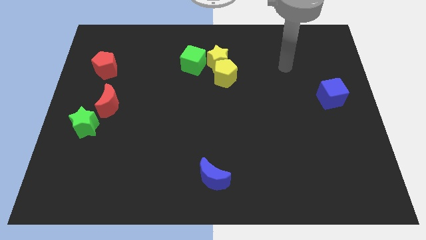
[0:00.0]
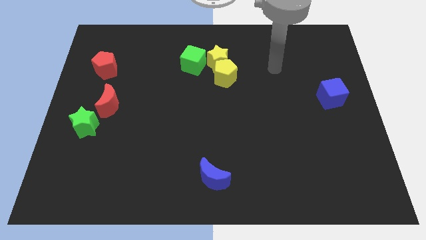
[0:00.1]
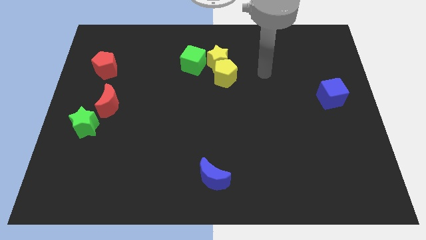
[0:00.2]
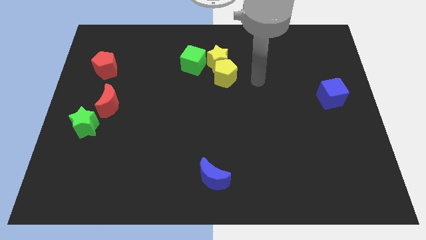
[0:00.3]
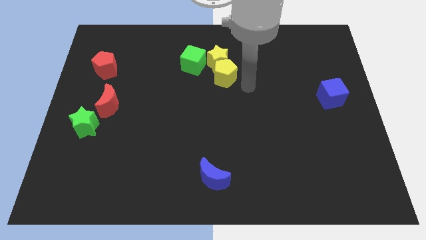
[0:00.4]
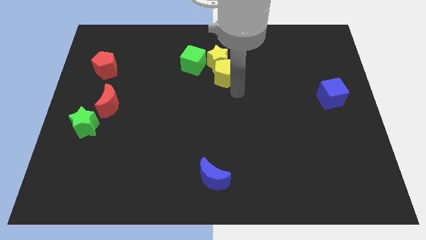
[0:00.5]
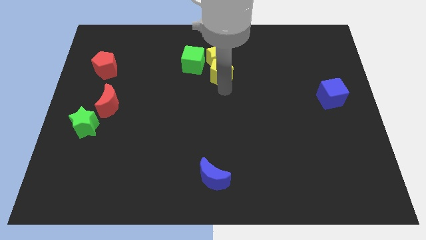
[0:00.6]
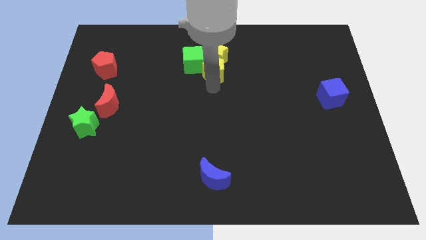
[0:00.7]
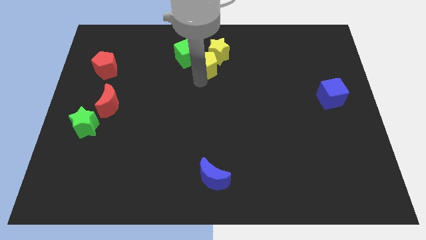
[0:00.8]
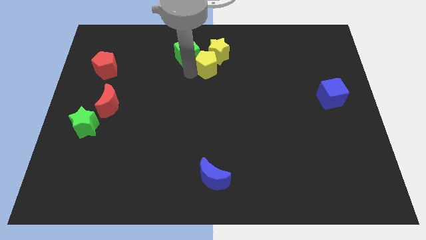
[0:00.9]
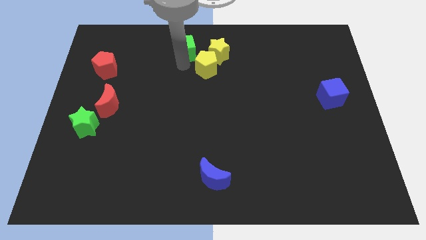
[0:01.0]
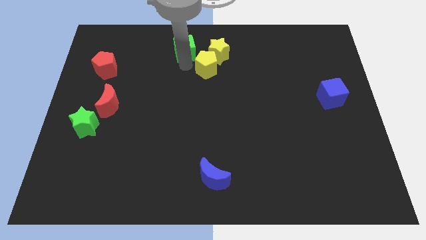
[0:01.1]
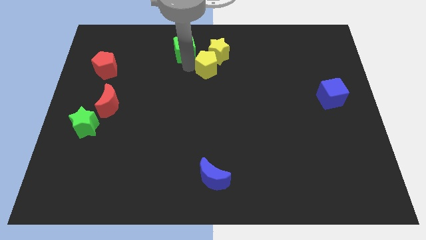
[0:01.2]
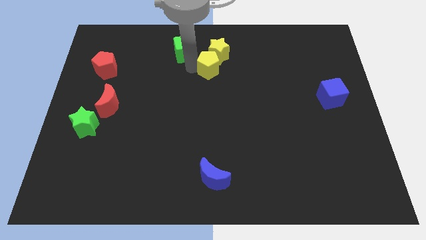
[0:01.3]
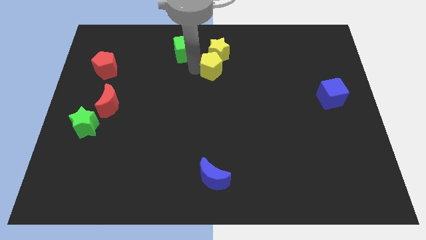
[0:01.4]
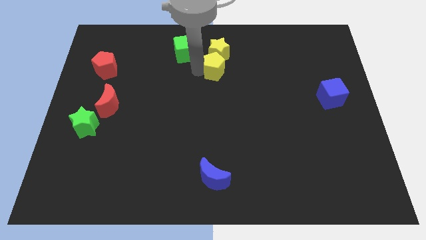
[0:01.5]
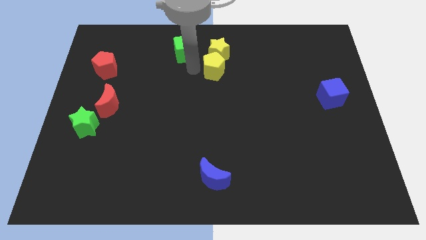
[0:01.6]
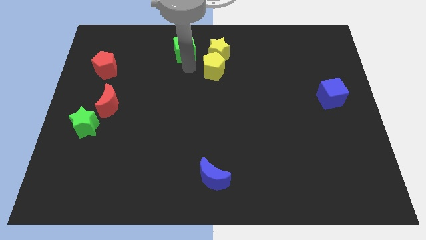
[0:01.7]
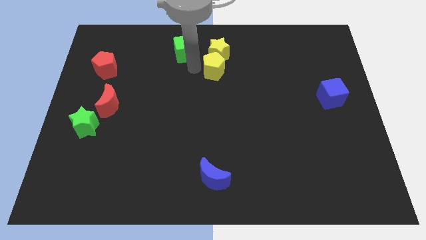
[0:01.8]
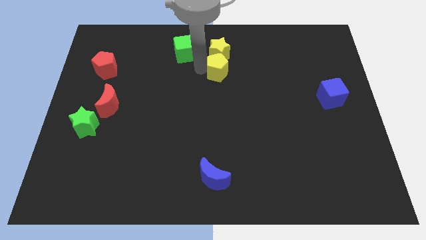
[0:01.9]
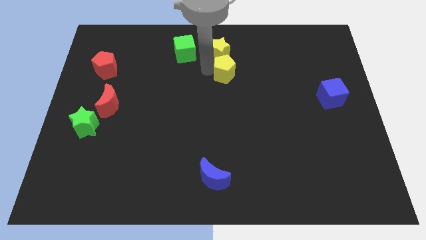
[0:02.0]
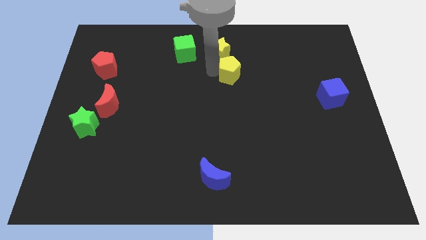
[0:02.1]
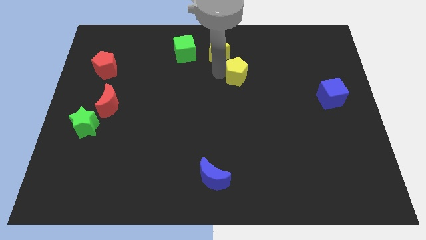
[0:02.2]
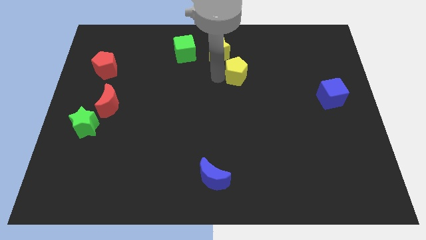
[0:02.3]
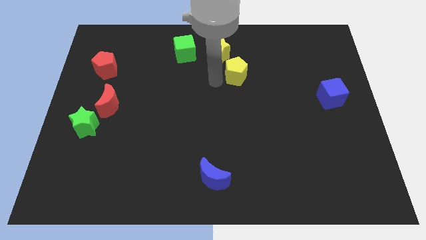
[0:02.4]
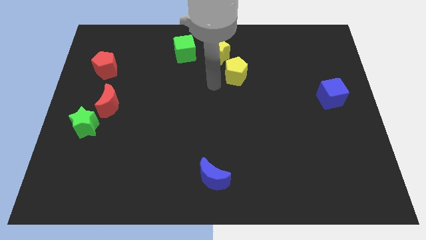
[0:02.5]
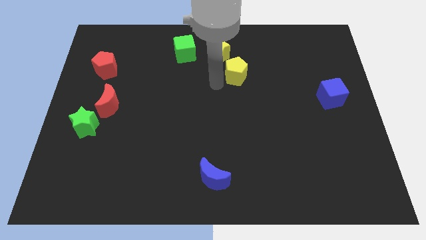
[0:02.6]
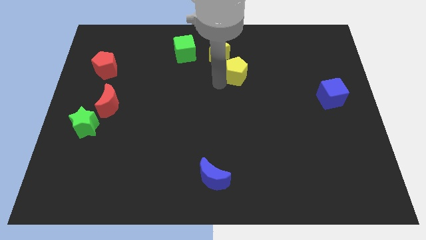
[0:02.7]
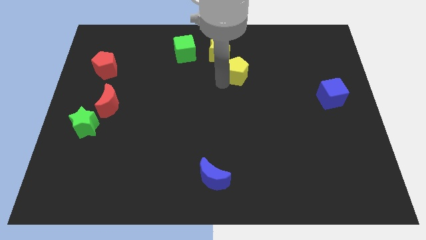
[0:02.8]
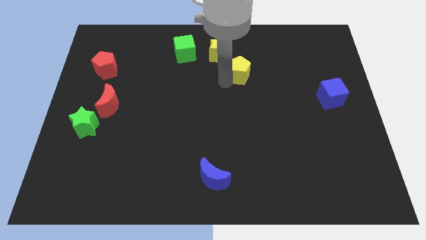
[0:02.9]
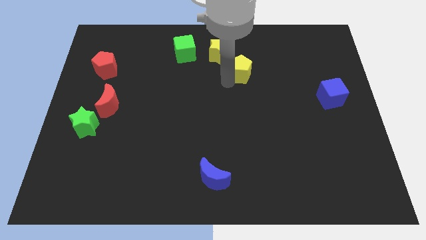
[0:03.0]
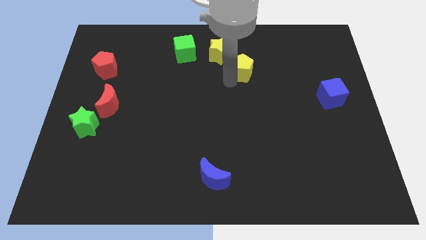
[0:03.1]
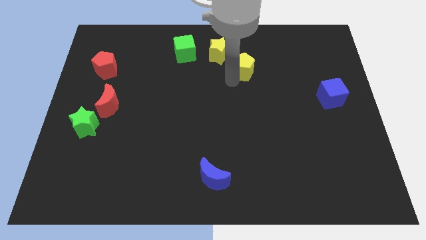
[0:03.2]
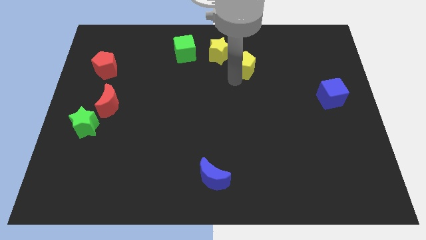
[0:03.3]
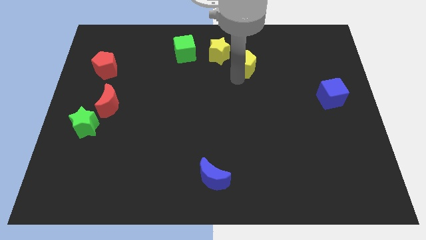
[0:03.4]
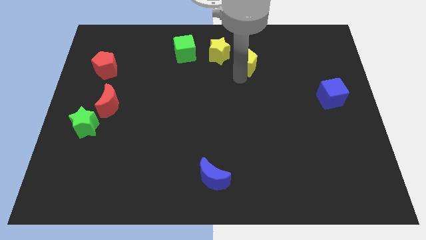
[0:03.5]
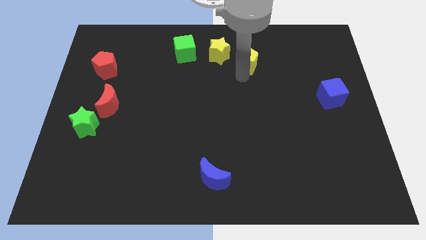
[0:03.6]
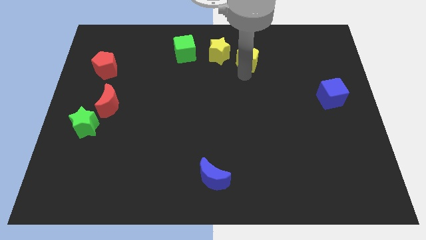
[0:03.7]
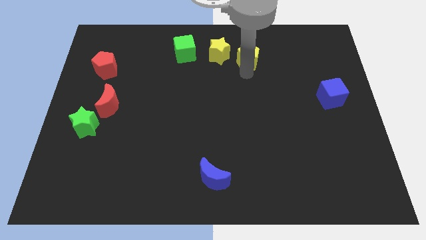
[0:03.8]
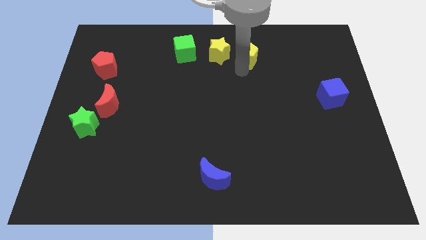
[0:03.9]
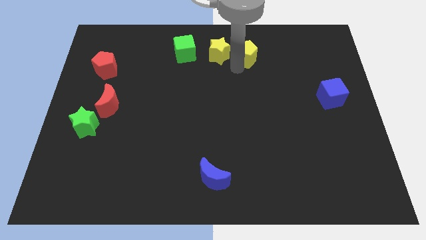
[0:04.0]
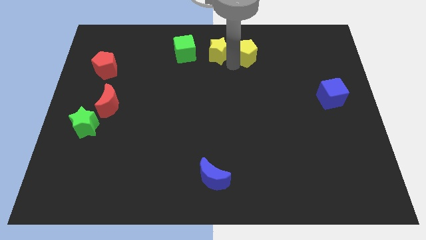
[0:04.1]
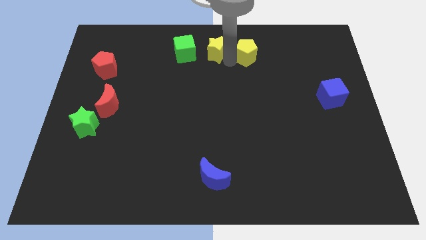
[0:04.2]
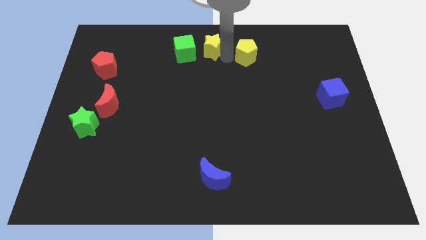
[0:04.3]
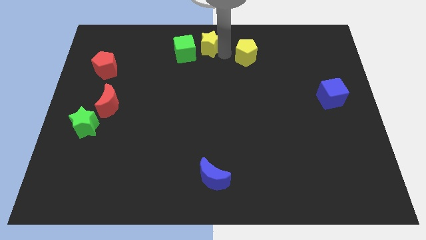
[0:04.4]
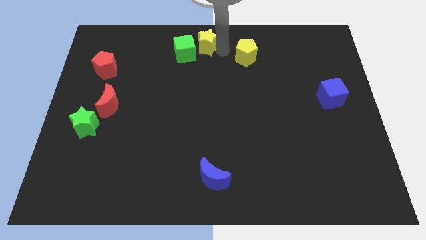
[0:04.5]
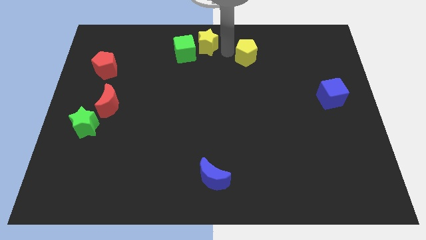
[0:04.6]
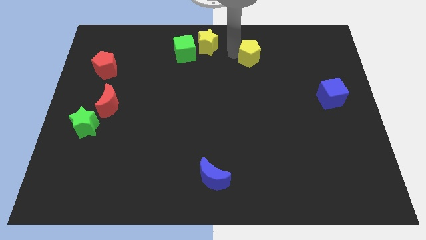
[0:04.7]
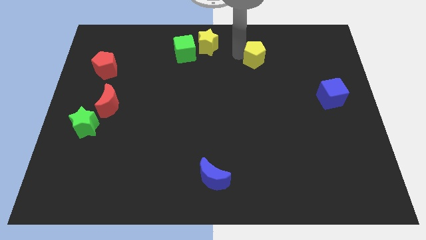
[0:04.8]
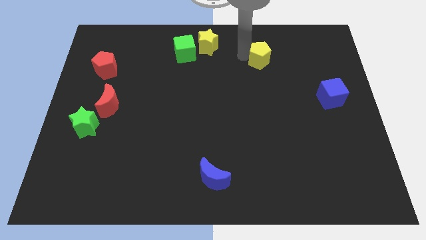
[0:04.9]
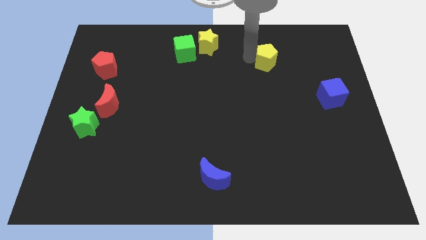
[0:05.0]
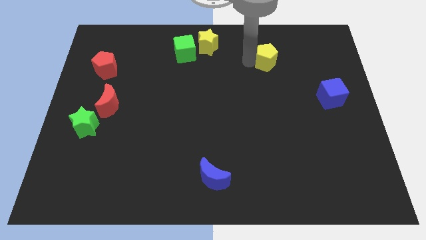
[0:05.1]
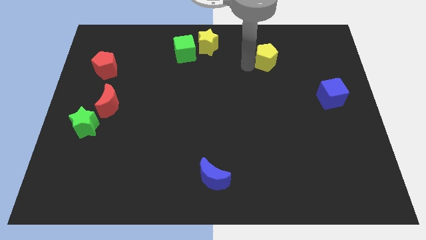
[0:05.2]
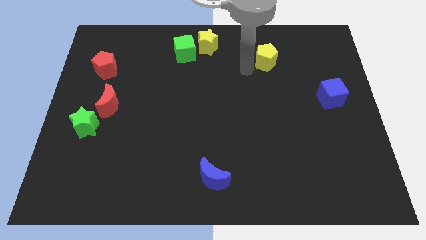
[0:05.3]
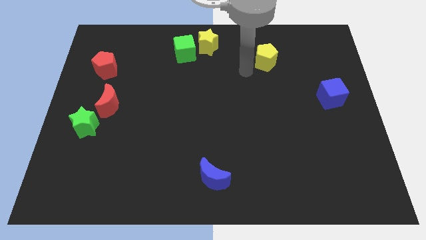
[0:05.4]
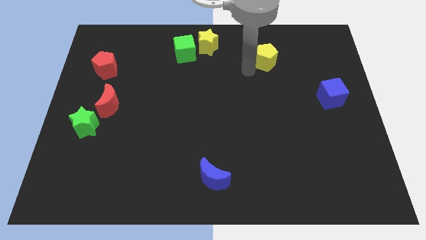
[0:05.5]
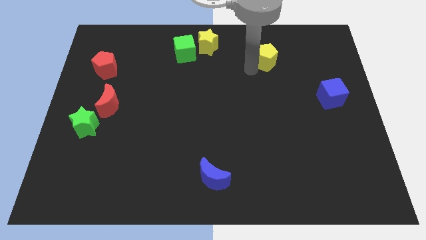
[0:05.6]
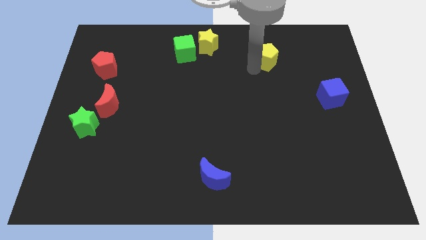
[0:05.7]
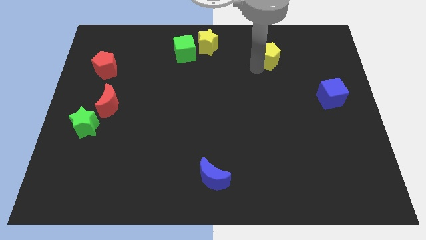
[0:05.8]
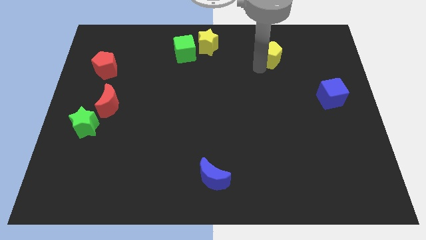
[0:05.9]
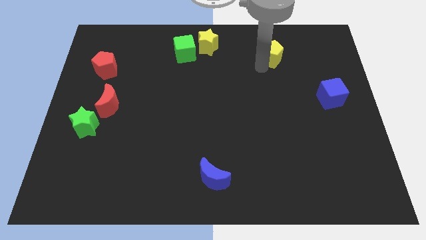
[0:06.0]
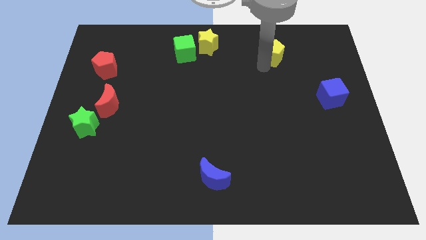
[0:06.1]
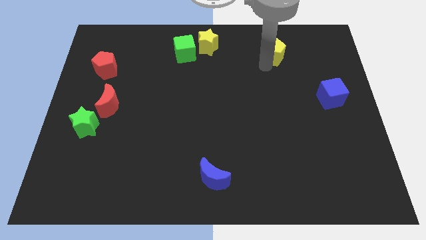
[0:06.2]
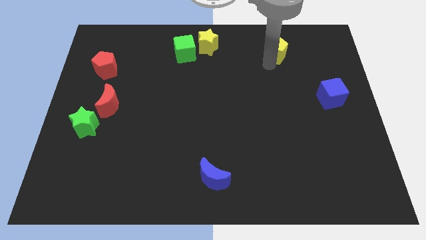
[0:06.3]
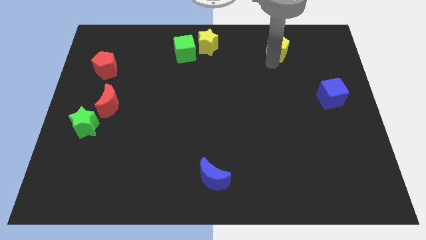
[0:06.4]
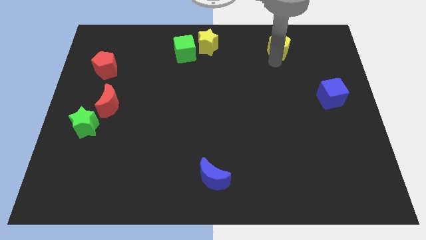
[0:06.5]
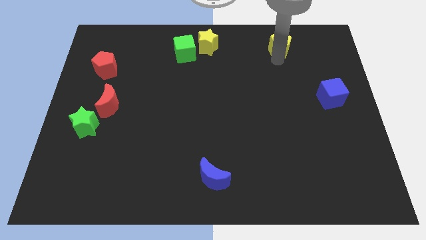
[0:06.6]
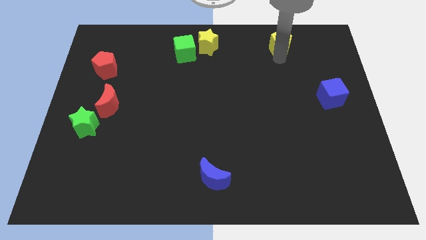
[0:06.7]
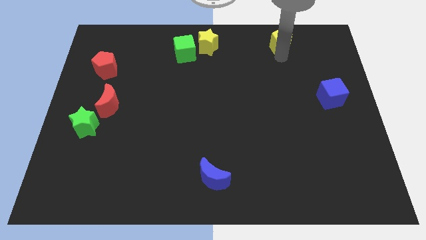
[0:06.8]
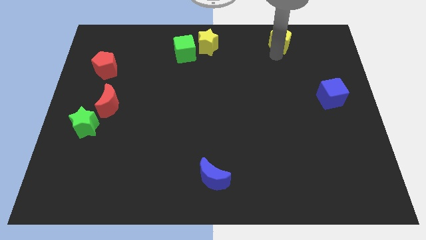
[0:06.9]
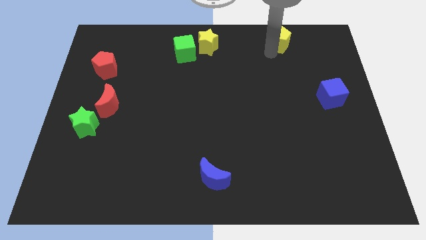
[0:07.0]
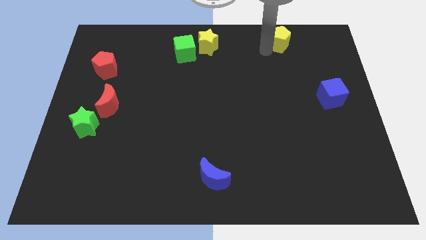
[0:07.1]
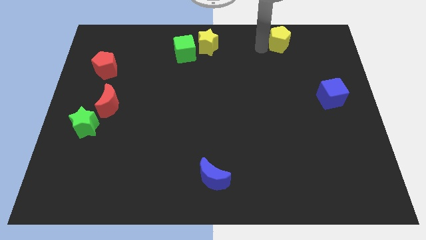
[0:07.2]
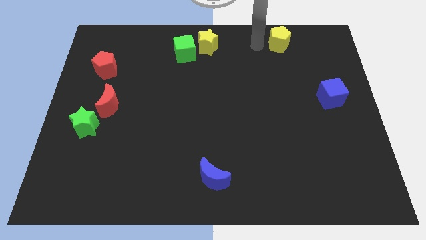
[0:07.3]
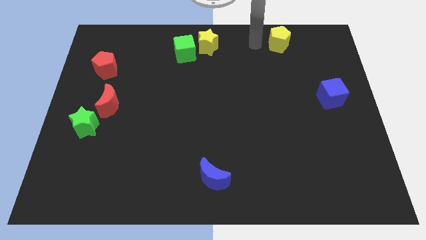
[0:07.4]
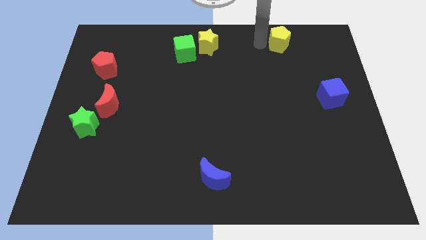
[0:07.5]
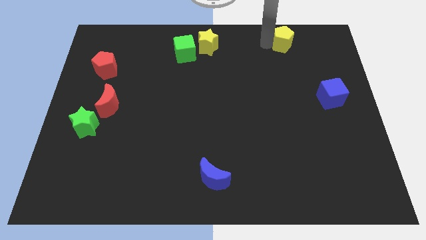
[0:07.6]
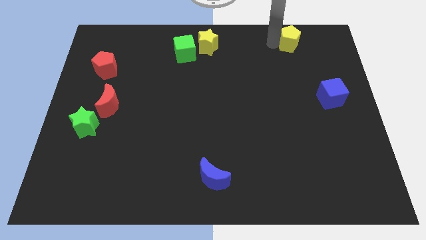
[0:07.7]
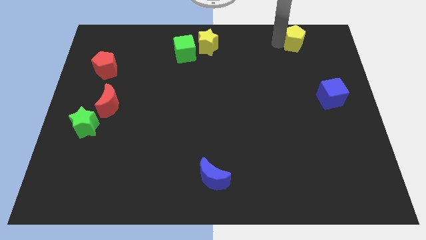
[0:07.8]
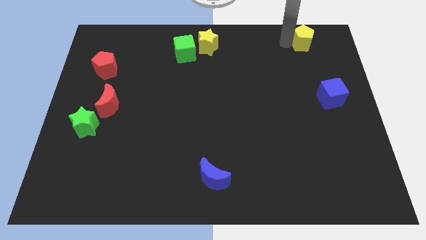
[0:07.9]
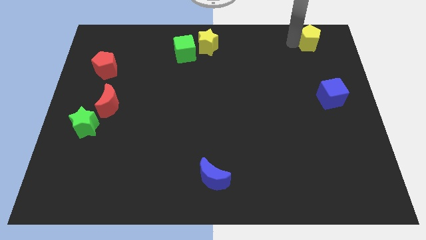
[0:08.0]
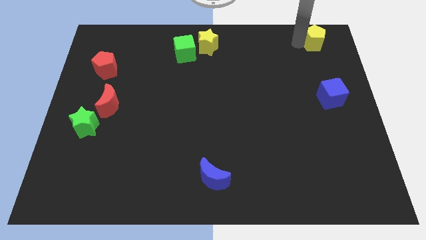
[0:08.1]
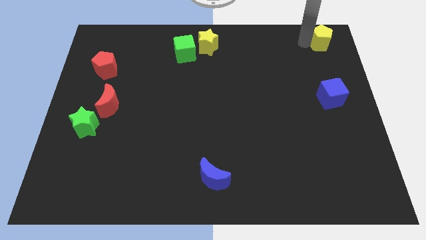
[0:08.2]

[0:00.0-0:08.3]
move the yellow pentagon to the upper right corner
